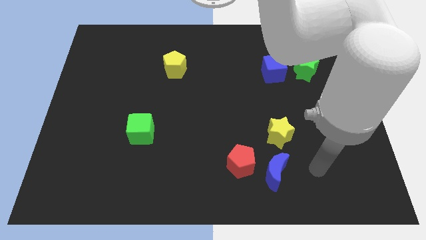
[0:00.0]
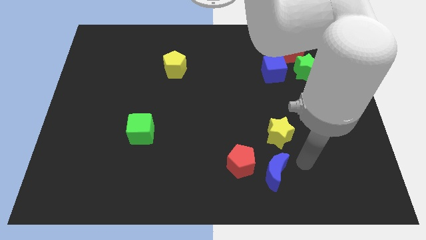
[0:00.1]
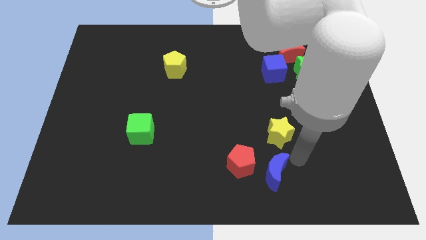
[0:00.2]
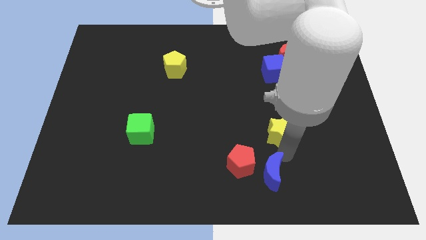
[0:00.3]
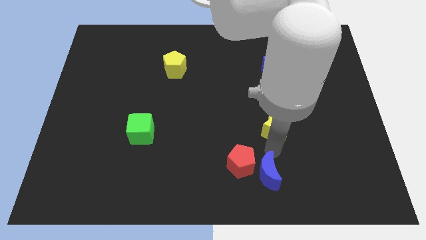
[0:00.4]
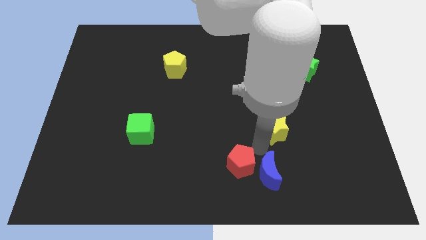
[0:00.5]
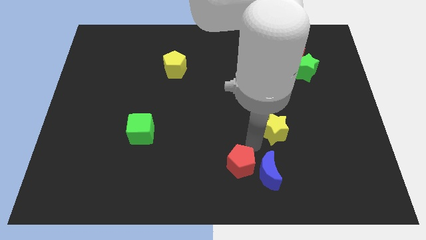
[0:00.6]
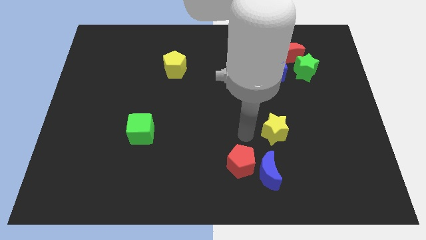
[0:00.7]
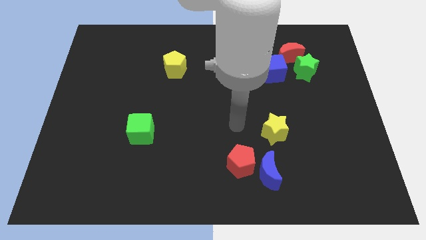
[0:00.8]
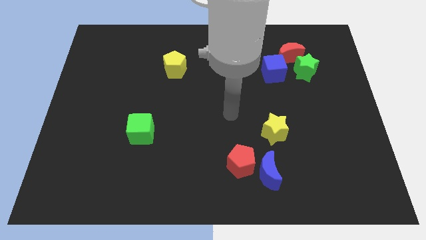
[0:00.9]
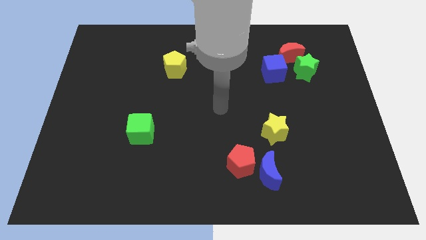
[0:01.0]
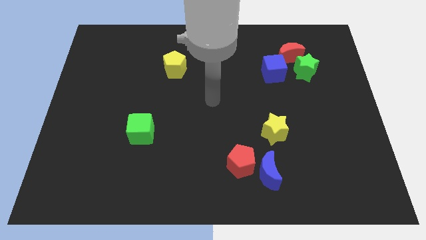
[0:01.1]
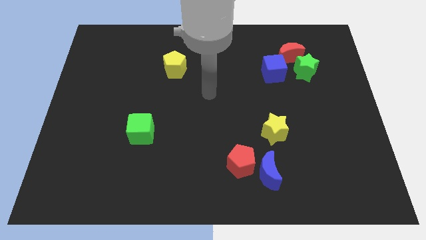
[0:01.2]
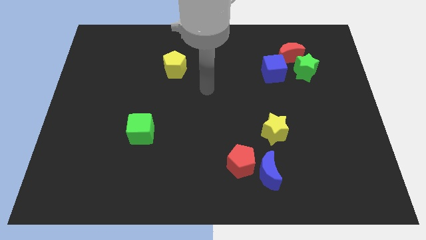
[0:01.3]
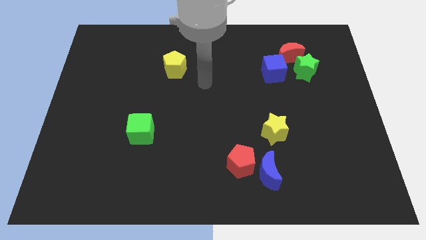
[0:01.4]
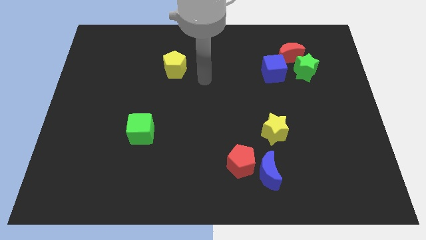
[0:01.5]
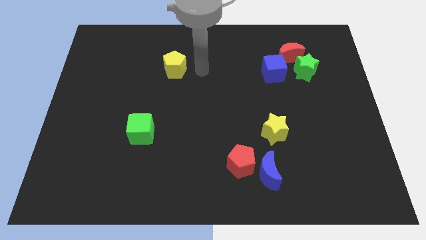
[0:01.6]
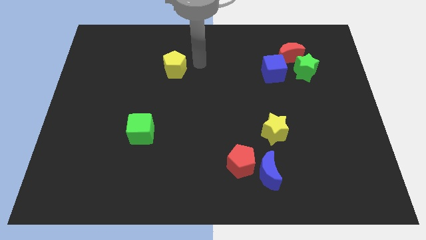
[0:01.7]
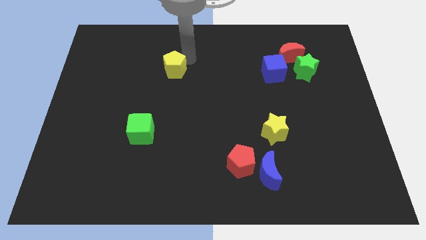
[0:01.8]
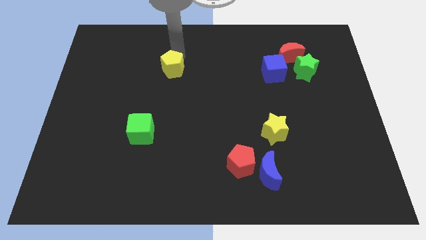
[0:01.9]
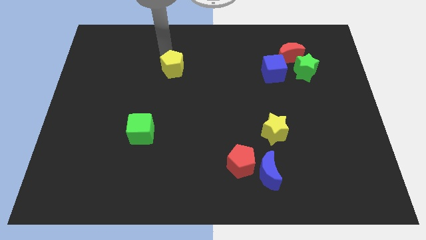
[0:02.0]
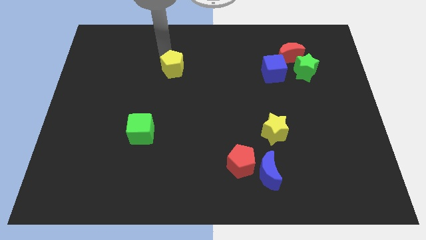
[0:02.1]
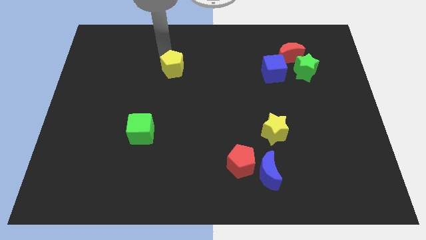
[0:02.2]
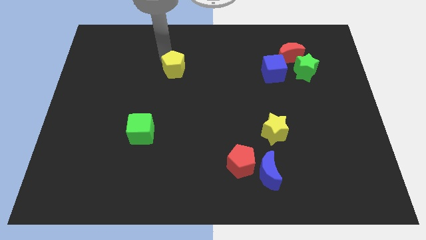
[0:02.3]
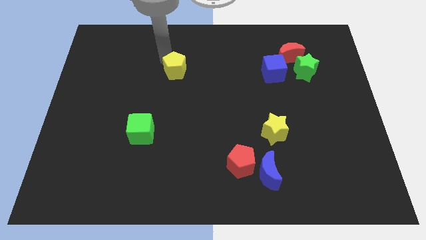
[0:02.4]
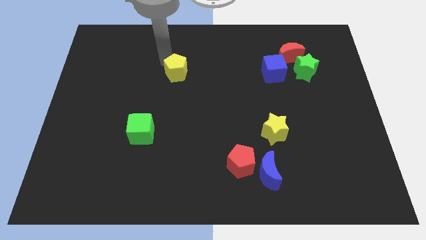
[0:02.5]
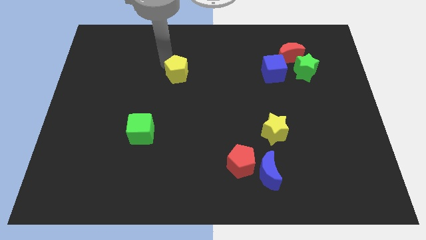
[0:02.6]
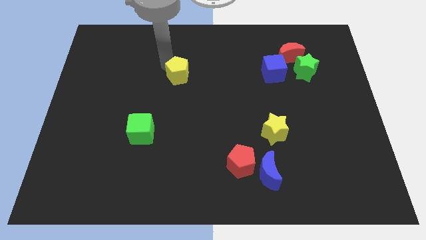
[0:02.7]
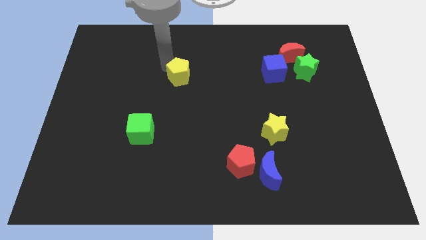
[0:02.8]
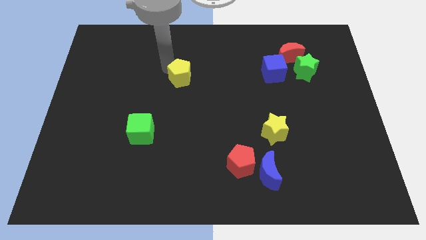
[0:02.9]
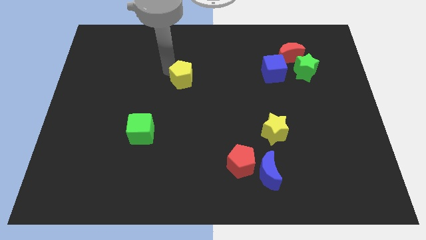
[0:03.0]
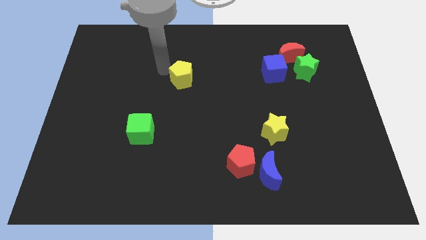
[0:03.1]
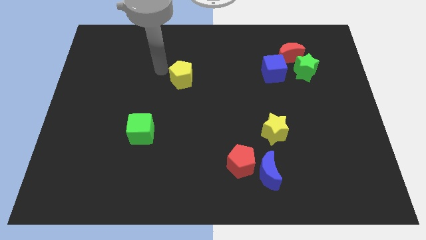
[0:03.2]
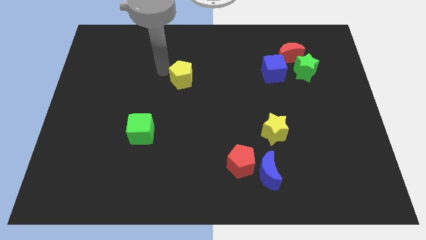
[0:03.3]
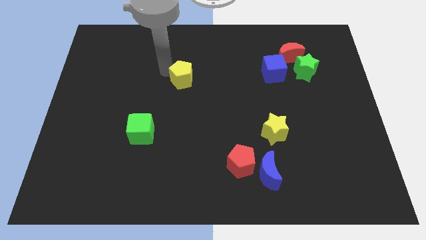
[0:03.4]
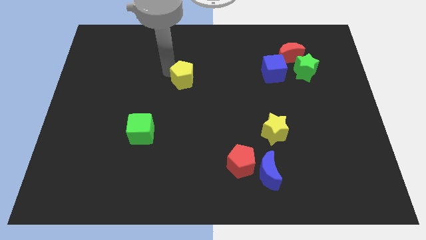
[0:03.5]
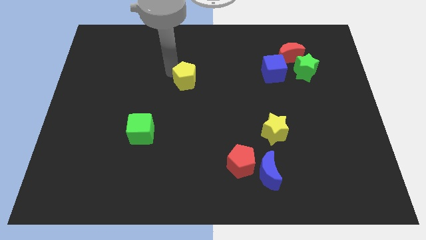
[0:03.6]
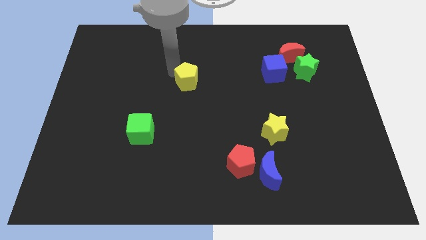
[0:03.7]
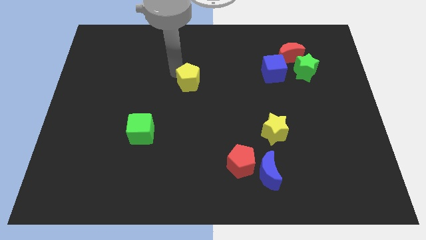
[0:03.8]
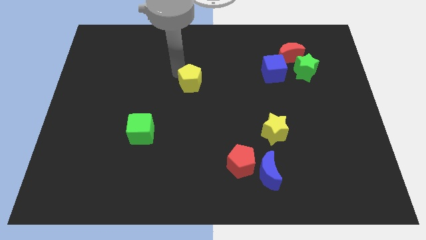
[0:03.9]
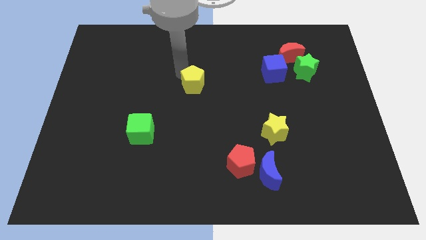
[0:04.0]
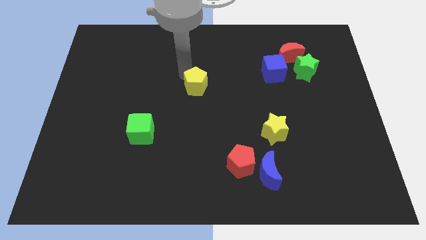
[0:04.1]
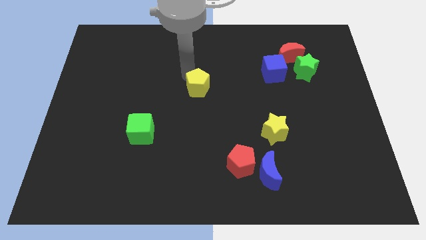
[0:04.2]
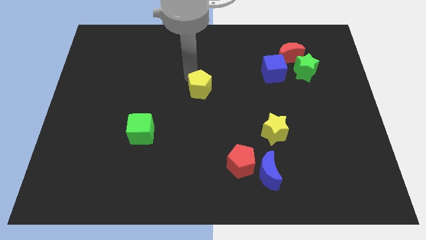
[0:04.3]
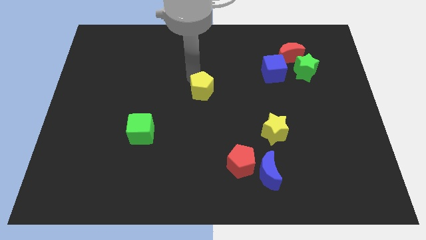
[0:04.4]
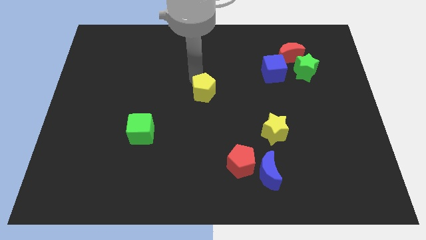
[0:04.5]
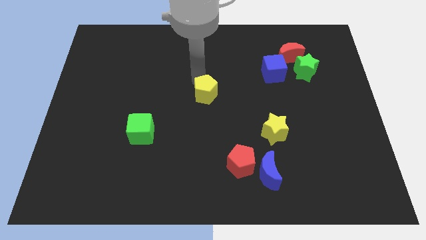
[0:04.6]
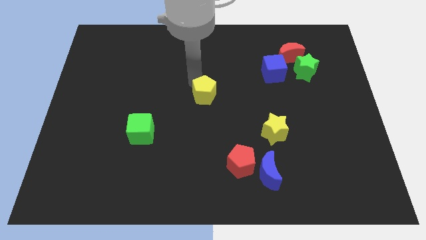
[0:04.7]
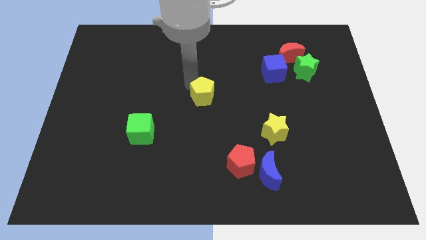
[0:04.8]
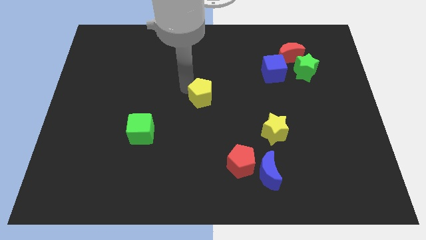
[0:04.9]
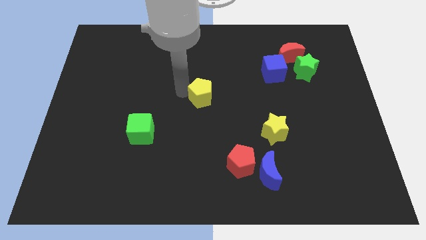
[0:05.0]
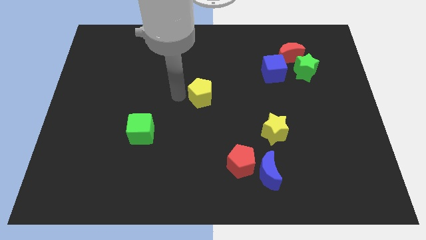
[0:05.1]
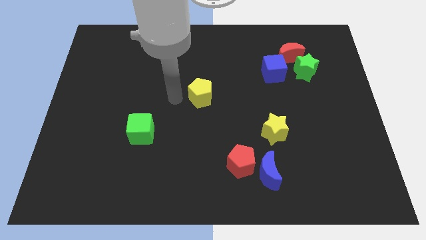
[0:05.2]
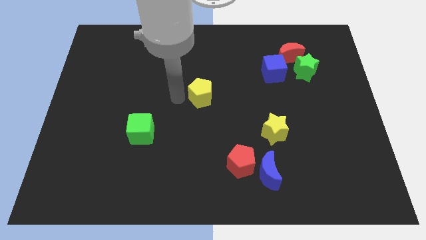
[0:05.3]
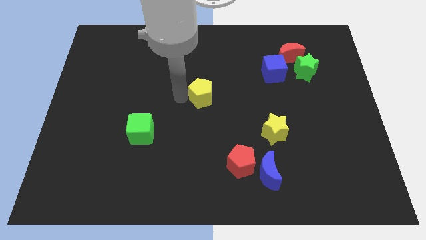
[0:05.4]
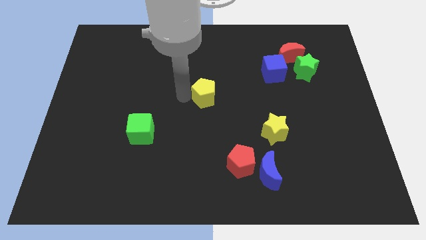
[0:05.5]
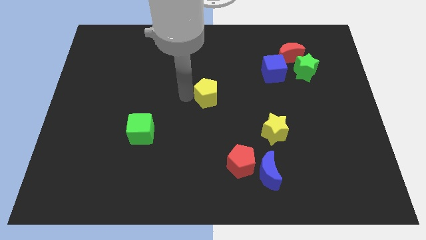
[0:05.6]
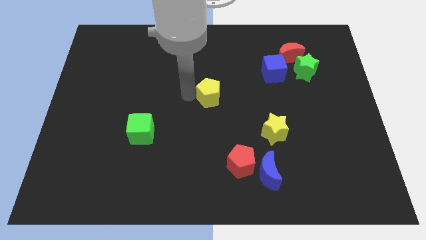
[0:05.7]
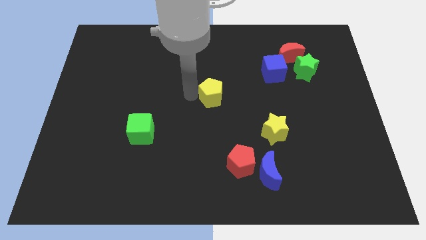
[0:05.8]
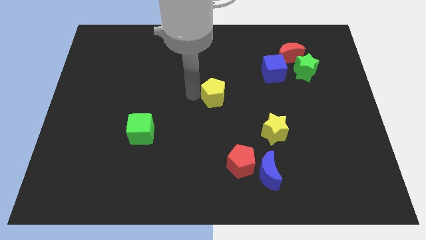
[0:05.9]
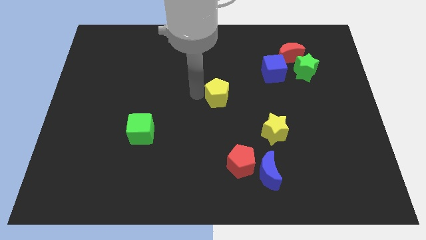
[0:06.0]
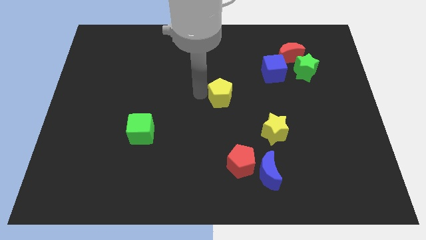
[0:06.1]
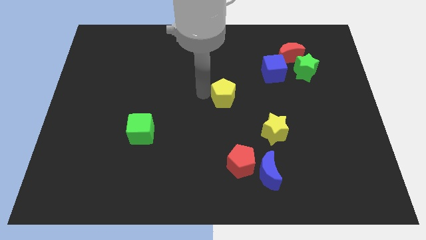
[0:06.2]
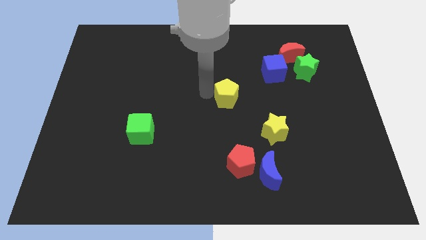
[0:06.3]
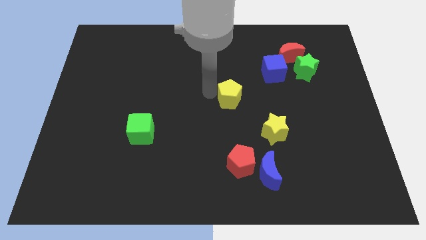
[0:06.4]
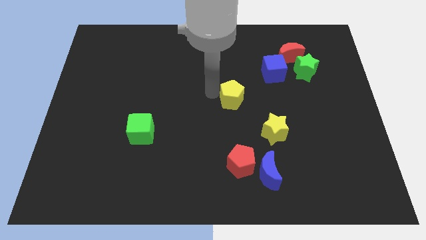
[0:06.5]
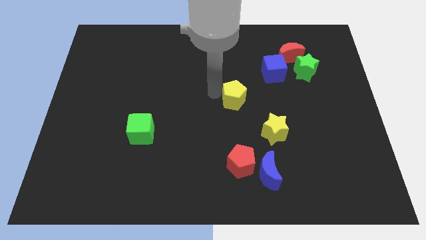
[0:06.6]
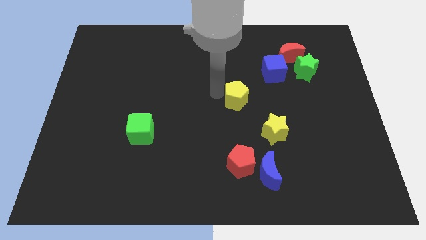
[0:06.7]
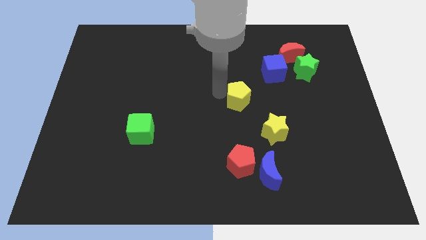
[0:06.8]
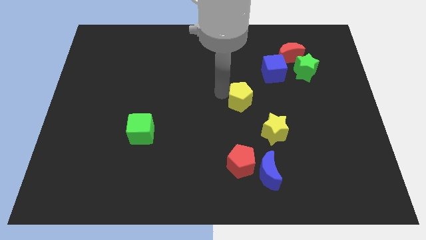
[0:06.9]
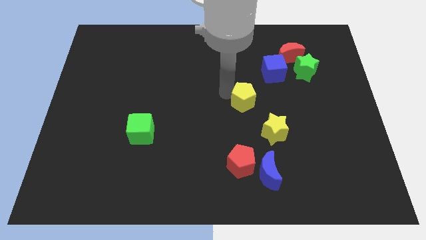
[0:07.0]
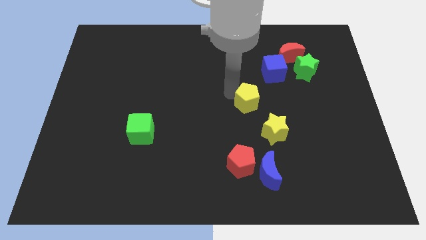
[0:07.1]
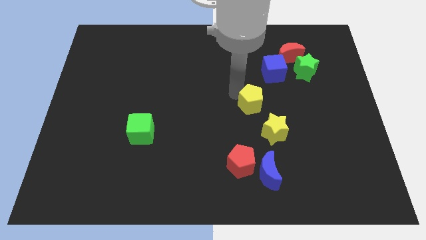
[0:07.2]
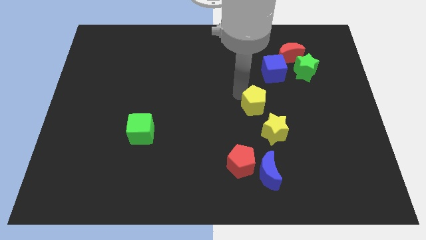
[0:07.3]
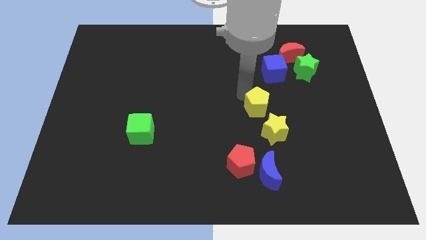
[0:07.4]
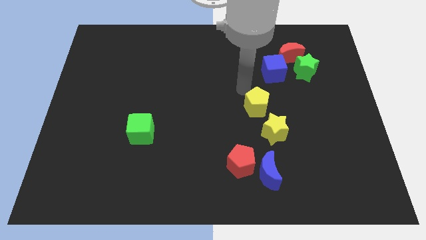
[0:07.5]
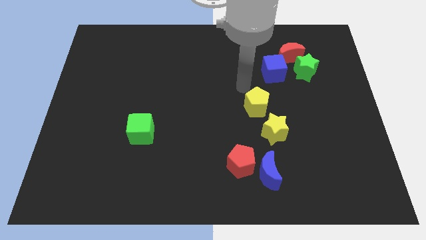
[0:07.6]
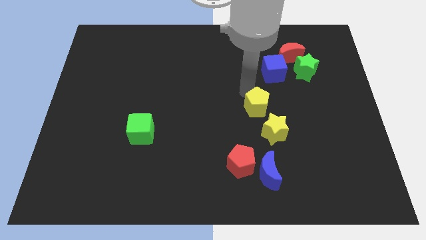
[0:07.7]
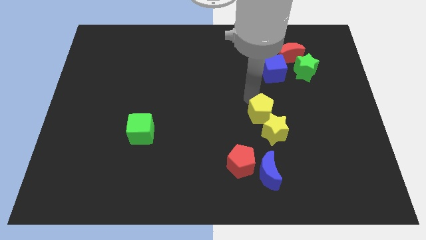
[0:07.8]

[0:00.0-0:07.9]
push the yellow pentagon towards the yellow star
